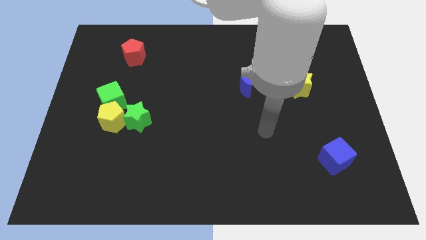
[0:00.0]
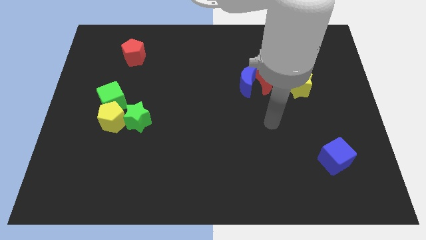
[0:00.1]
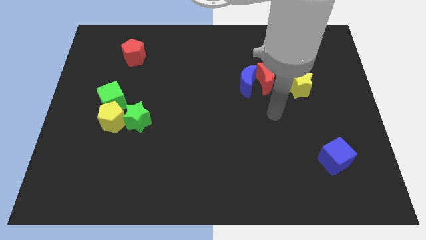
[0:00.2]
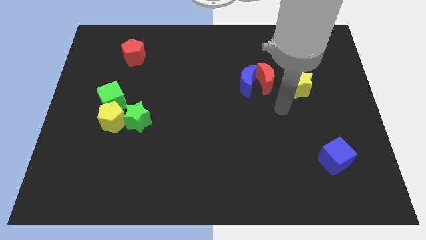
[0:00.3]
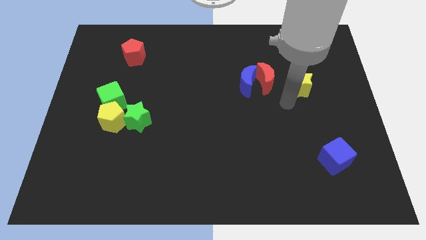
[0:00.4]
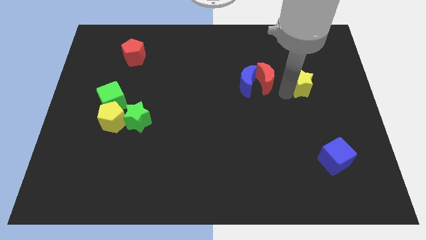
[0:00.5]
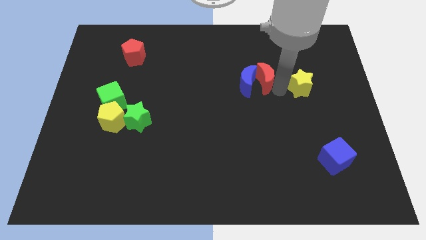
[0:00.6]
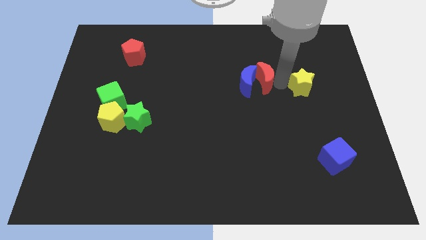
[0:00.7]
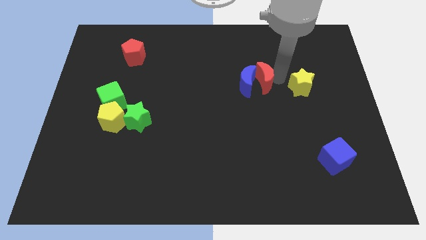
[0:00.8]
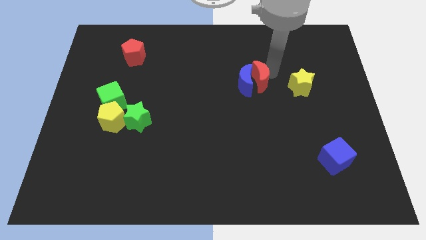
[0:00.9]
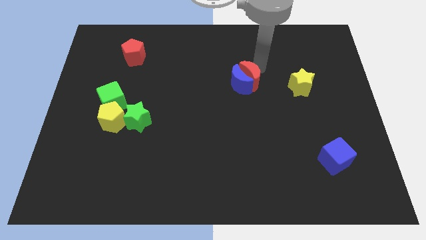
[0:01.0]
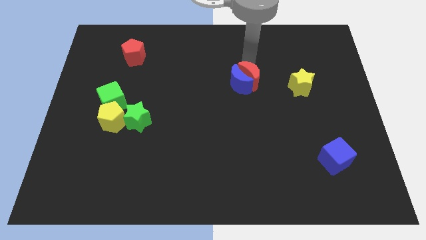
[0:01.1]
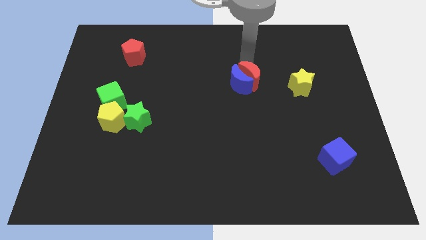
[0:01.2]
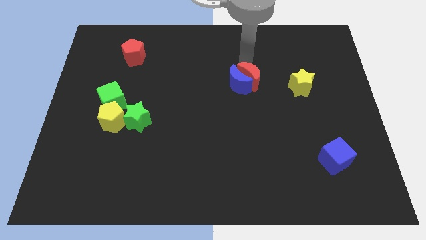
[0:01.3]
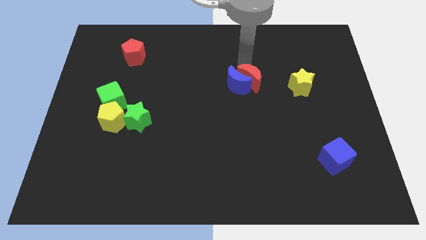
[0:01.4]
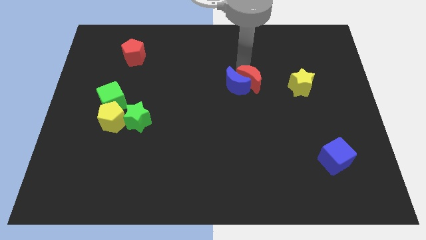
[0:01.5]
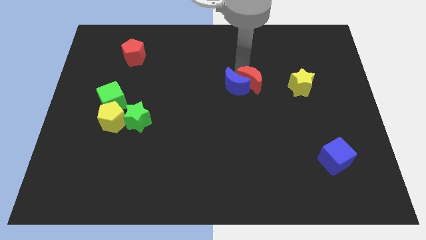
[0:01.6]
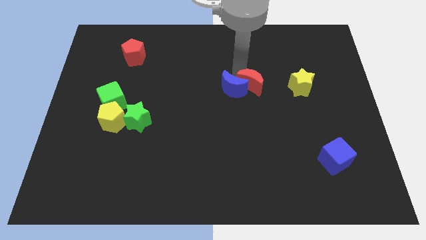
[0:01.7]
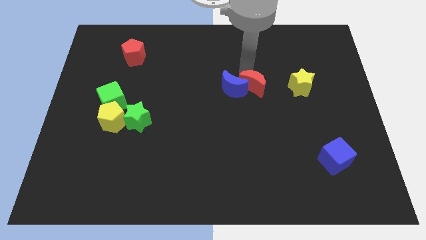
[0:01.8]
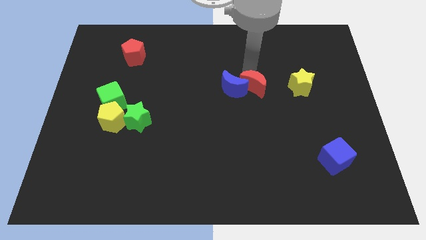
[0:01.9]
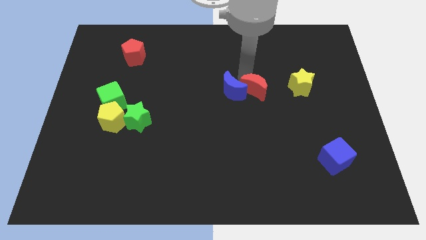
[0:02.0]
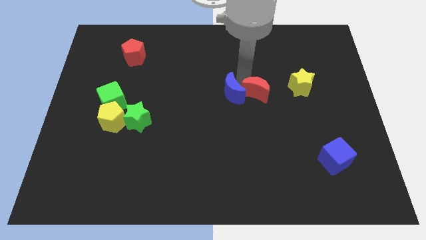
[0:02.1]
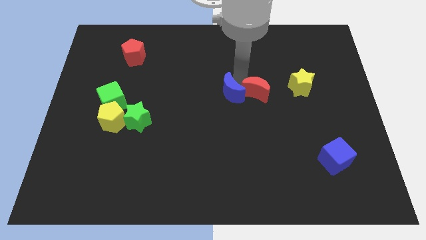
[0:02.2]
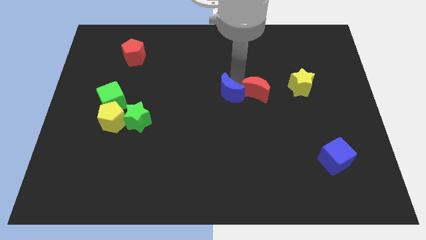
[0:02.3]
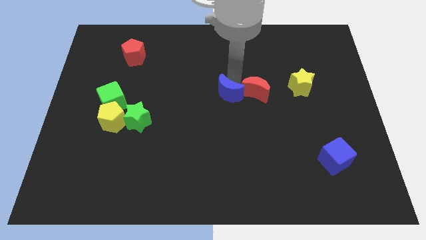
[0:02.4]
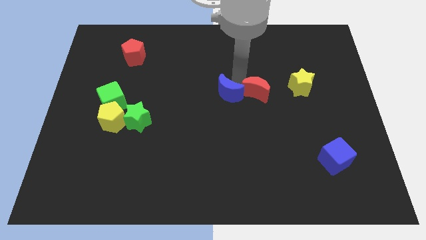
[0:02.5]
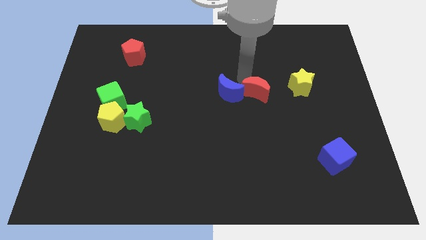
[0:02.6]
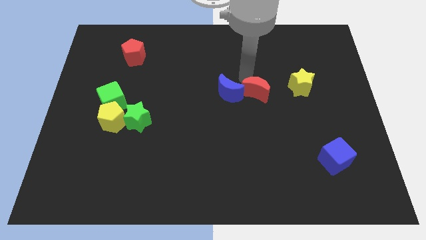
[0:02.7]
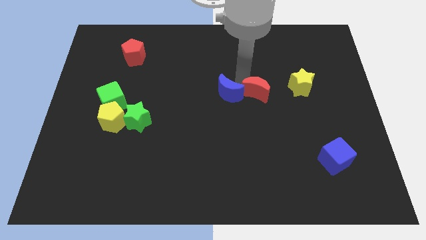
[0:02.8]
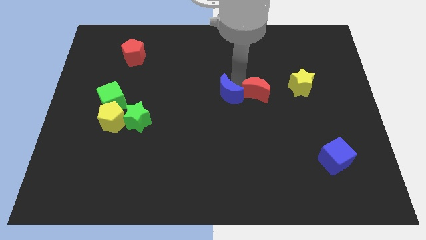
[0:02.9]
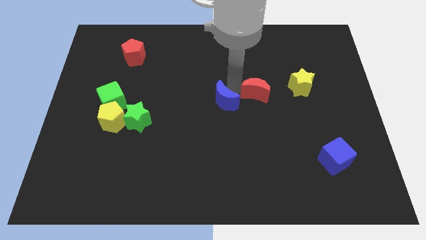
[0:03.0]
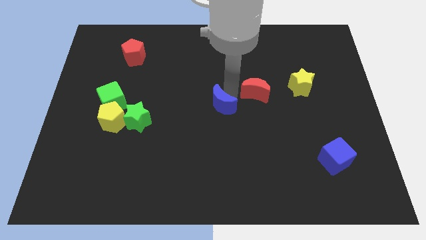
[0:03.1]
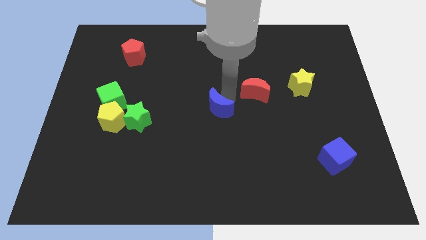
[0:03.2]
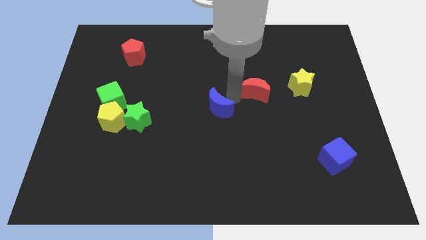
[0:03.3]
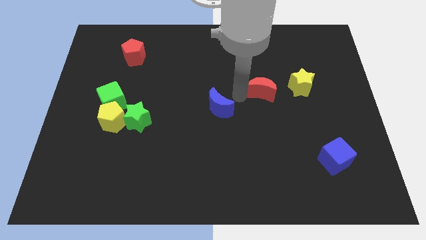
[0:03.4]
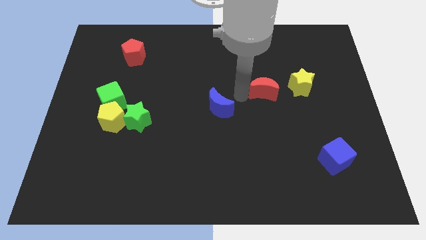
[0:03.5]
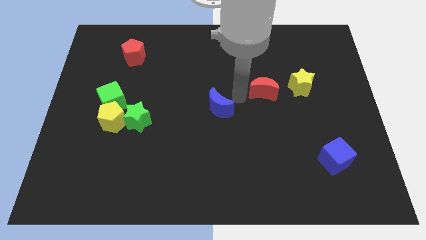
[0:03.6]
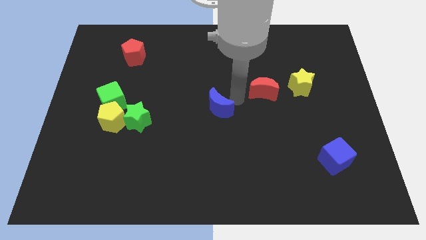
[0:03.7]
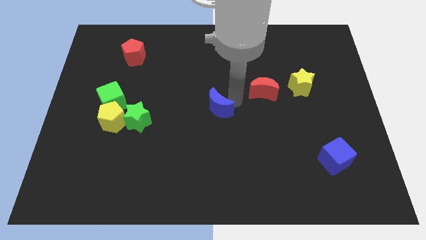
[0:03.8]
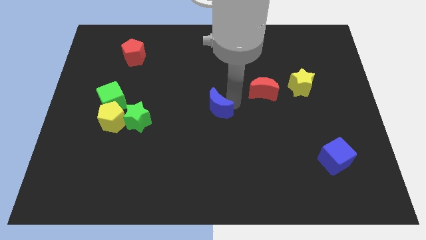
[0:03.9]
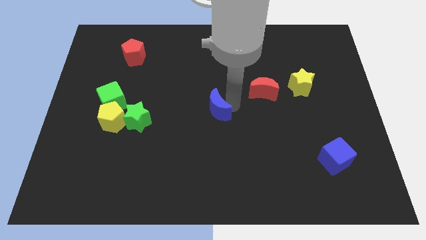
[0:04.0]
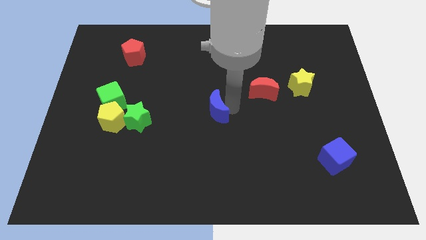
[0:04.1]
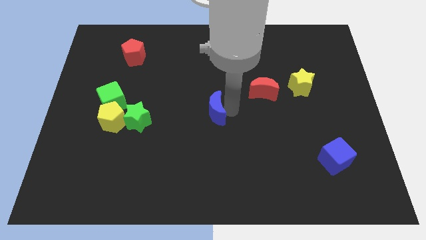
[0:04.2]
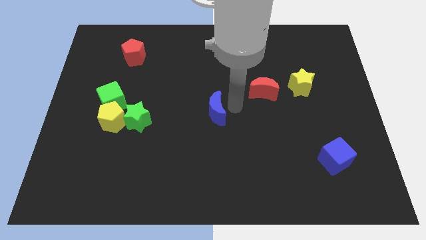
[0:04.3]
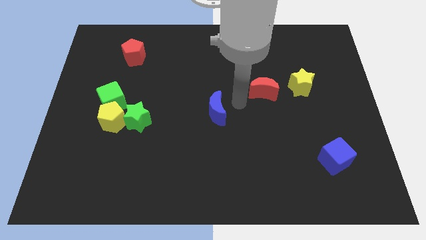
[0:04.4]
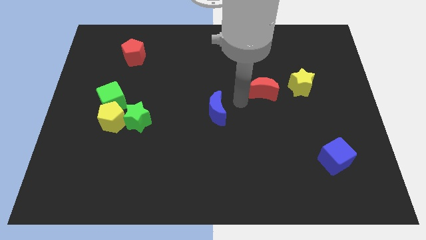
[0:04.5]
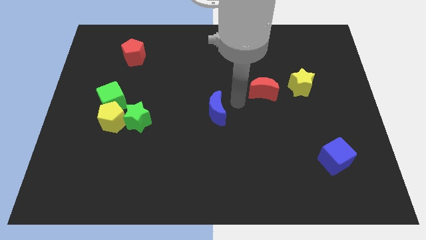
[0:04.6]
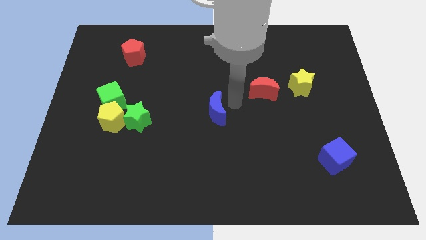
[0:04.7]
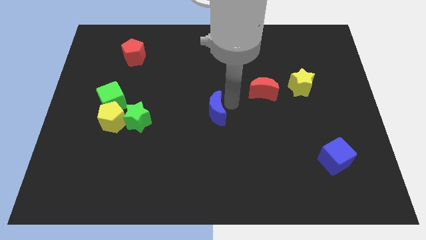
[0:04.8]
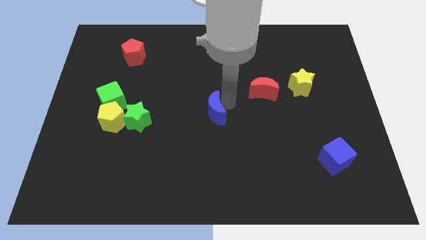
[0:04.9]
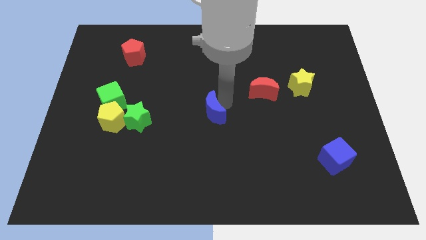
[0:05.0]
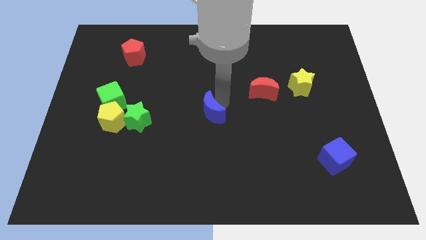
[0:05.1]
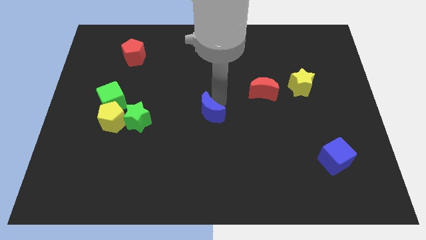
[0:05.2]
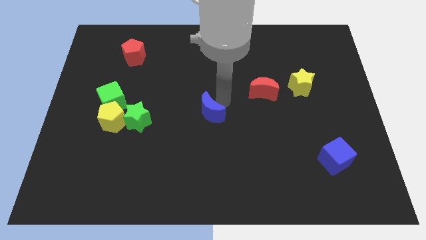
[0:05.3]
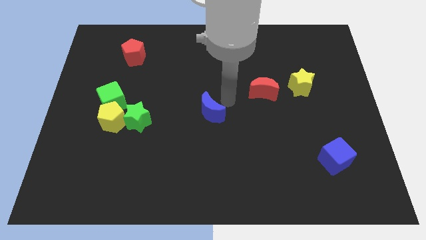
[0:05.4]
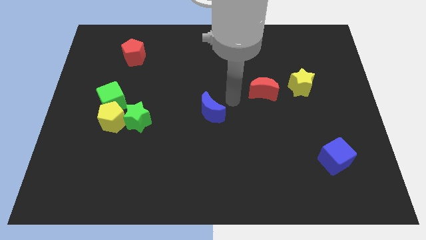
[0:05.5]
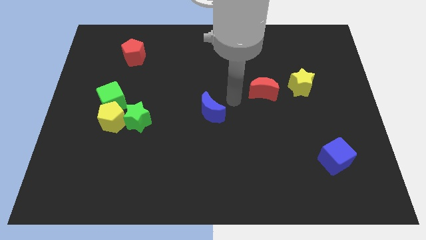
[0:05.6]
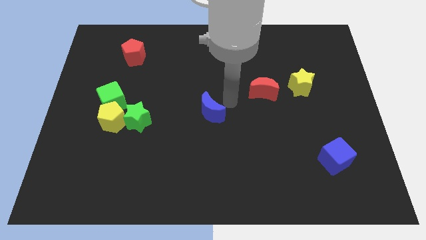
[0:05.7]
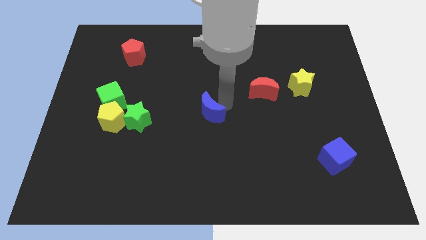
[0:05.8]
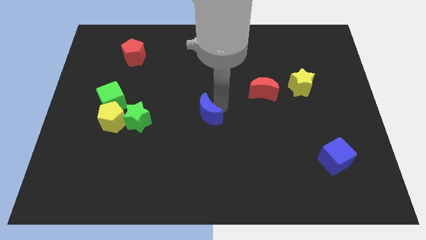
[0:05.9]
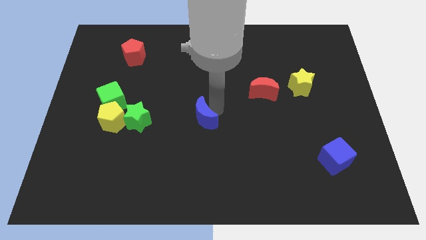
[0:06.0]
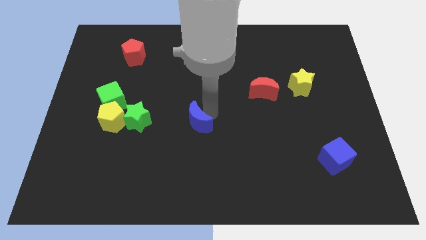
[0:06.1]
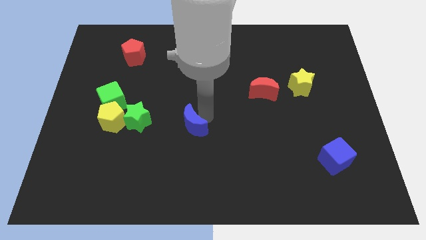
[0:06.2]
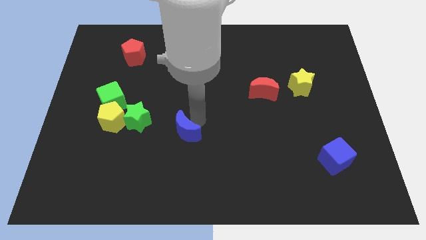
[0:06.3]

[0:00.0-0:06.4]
push the blue moon downwards and then to the left

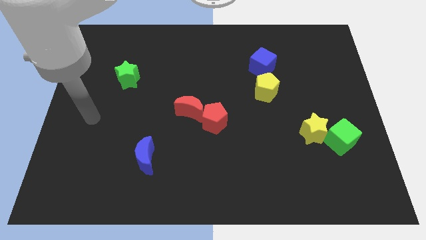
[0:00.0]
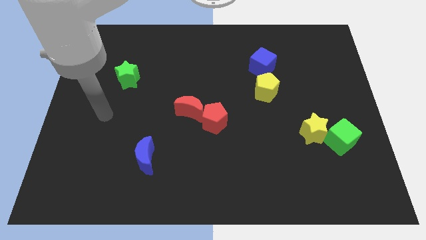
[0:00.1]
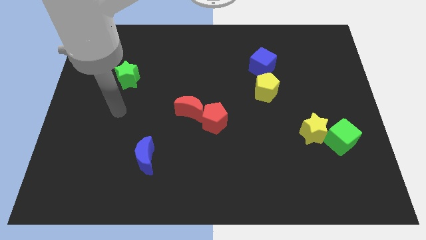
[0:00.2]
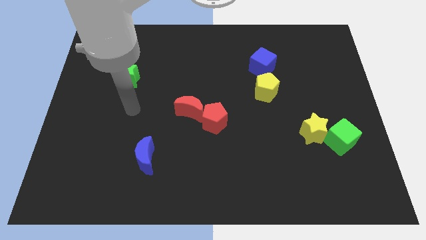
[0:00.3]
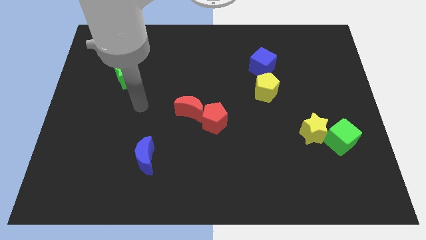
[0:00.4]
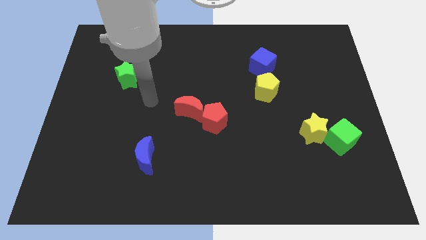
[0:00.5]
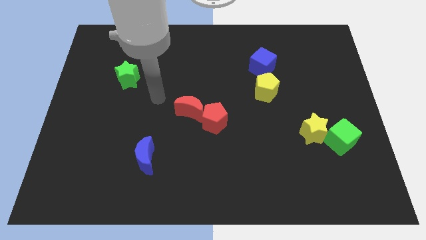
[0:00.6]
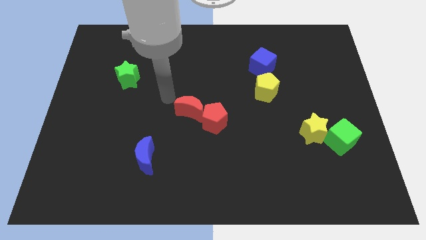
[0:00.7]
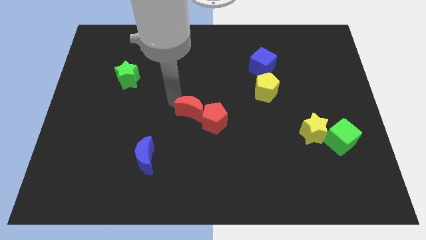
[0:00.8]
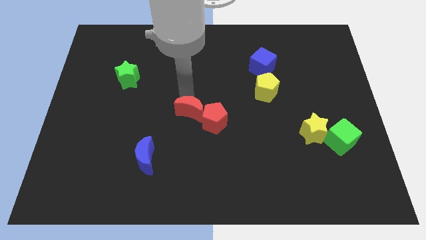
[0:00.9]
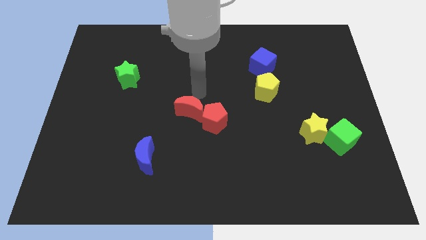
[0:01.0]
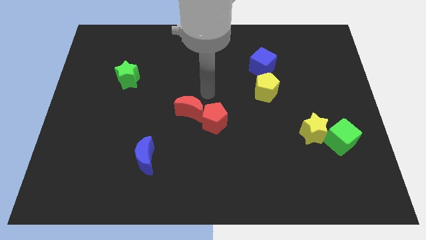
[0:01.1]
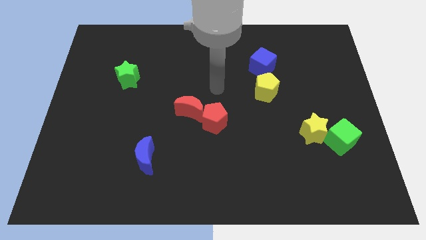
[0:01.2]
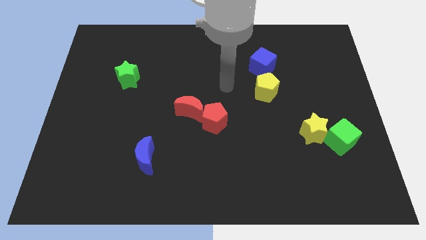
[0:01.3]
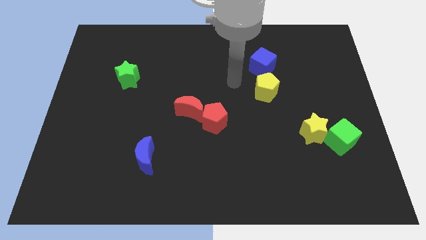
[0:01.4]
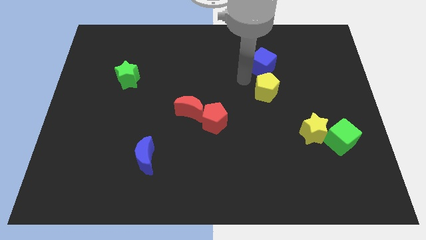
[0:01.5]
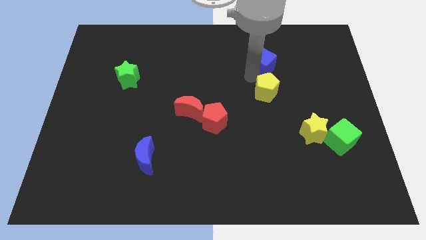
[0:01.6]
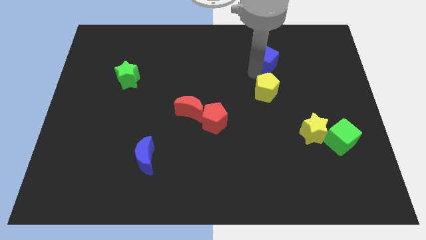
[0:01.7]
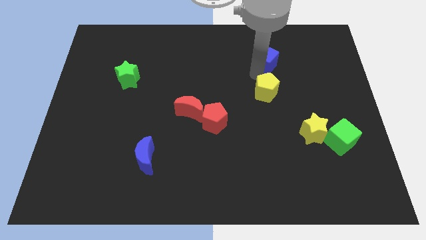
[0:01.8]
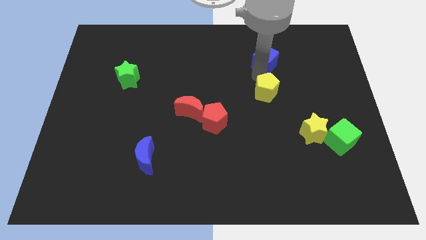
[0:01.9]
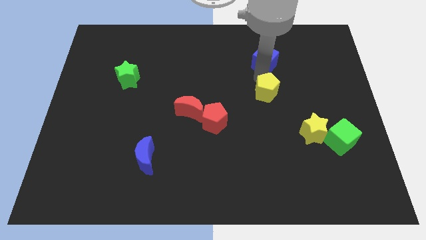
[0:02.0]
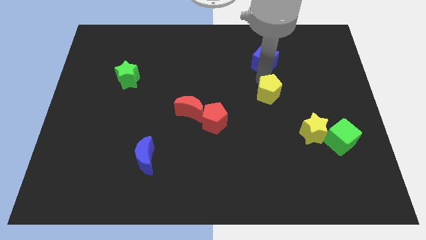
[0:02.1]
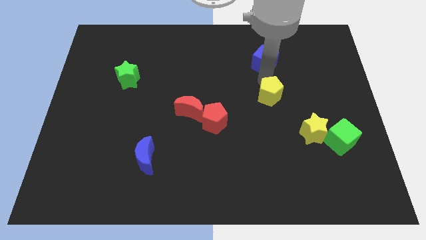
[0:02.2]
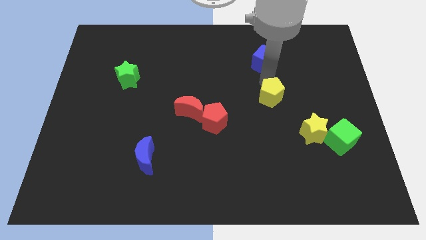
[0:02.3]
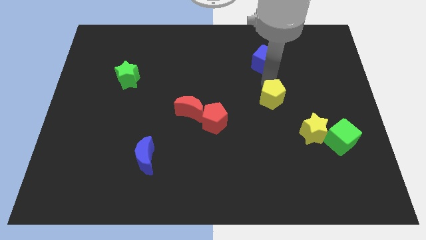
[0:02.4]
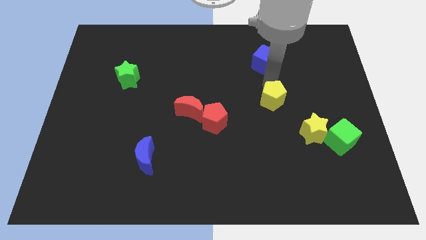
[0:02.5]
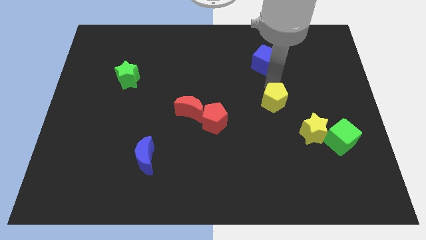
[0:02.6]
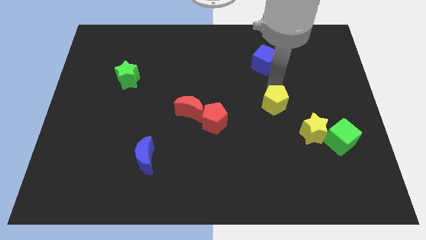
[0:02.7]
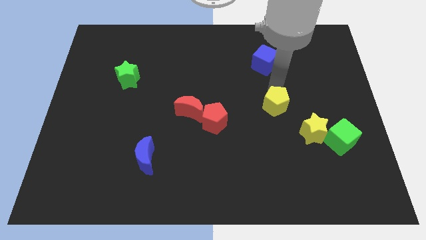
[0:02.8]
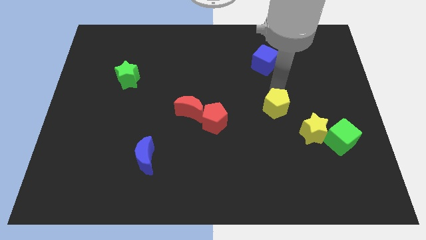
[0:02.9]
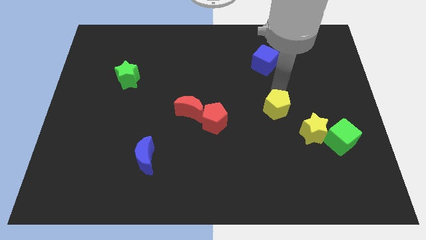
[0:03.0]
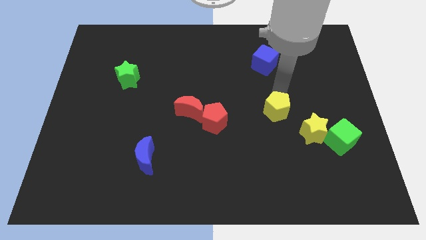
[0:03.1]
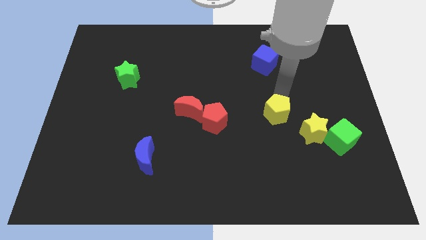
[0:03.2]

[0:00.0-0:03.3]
slide the yellow pentagon downwards a little
